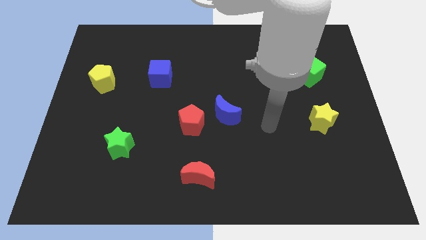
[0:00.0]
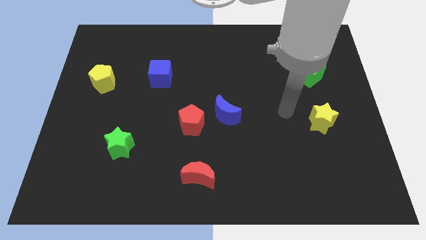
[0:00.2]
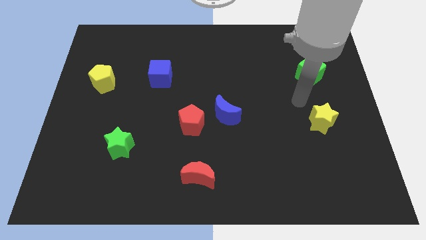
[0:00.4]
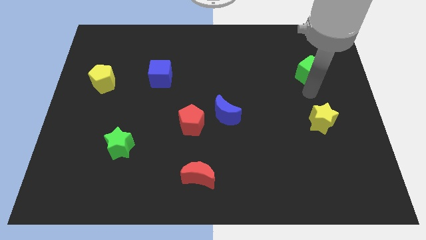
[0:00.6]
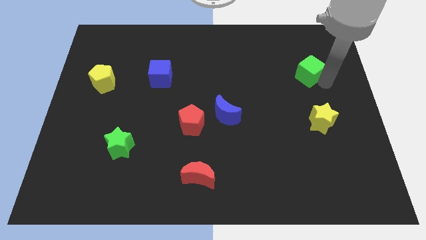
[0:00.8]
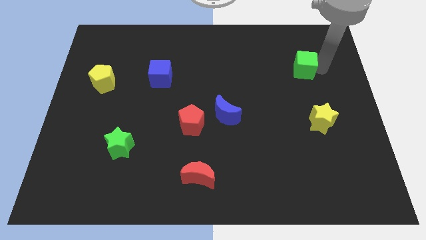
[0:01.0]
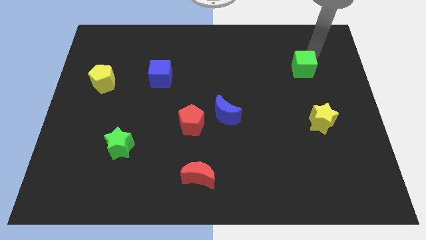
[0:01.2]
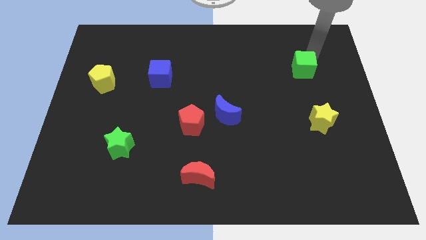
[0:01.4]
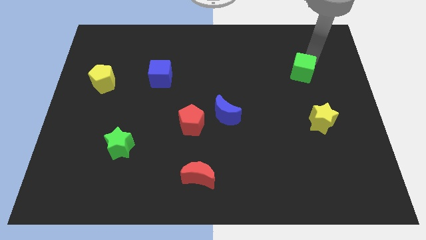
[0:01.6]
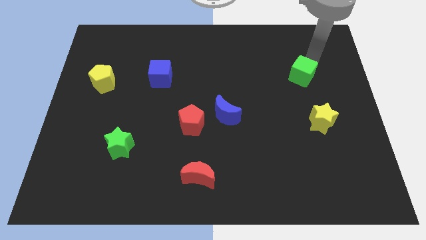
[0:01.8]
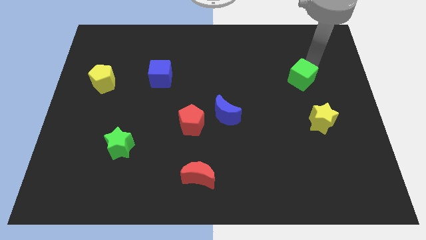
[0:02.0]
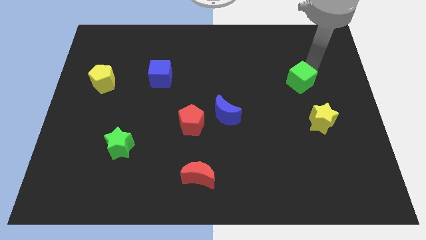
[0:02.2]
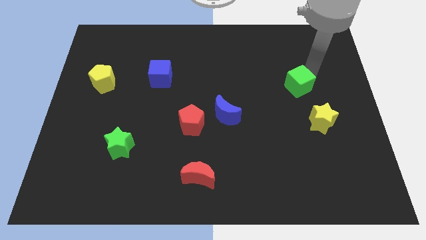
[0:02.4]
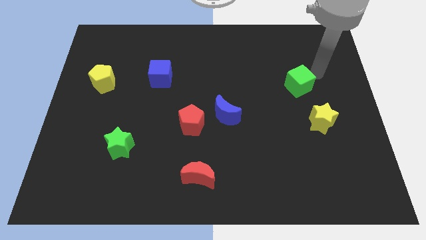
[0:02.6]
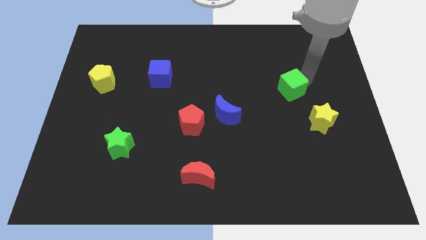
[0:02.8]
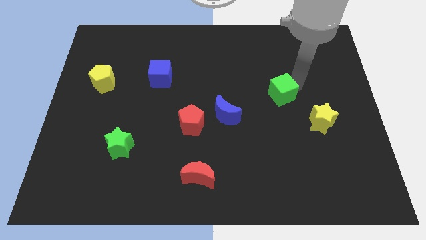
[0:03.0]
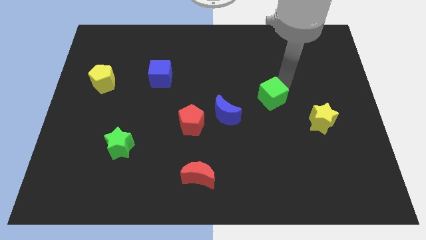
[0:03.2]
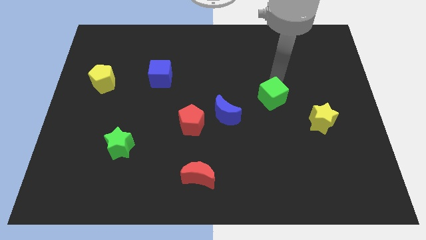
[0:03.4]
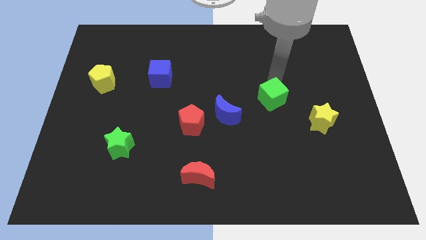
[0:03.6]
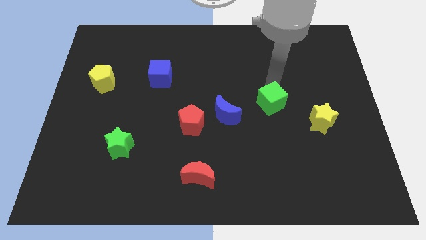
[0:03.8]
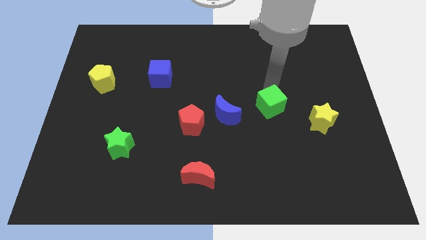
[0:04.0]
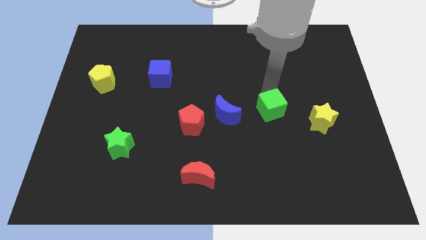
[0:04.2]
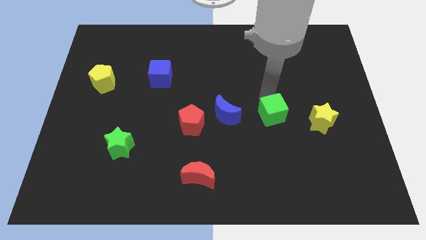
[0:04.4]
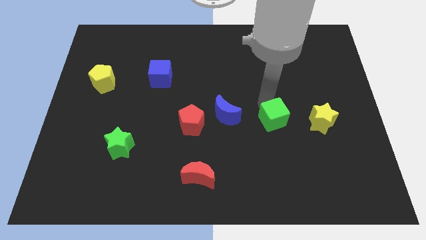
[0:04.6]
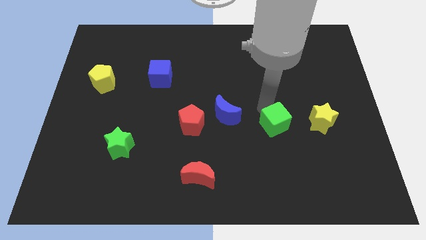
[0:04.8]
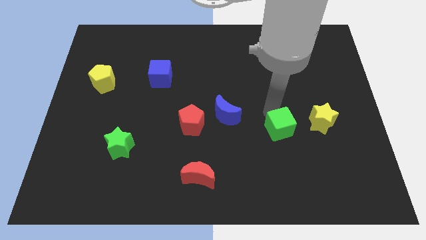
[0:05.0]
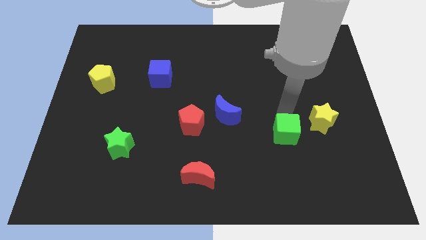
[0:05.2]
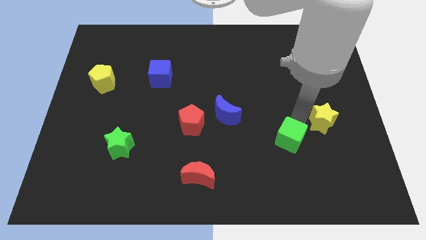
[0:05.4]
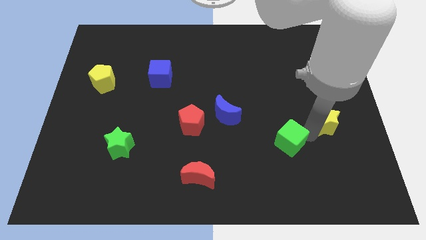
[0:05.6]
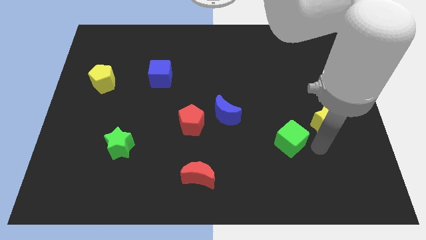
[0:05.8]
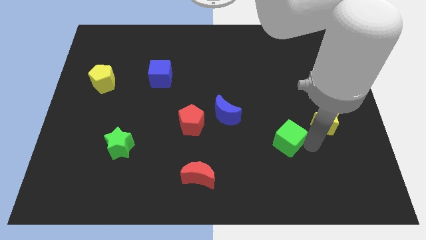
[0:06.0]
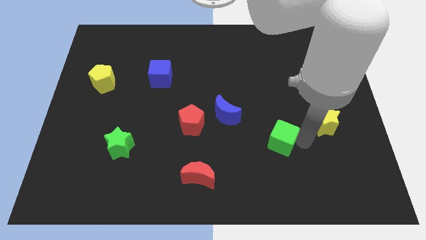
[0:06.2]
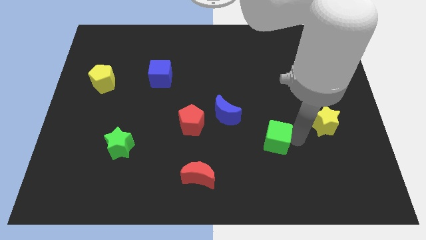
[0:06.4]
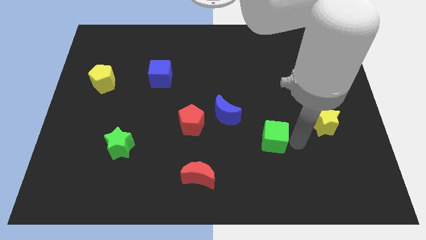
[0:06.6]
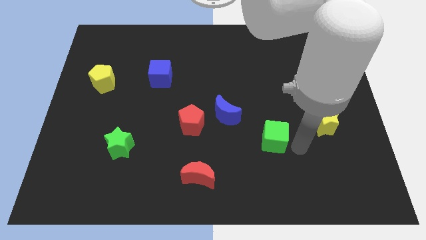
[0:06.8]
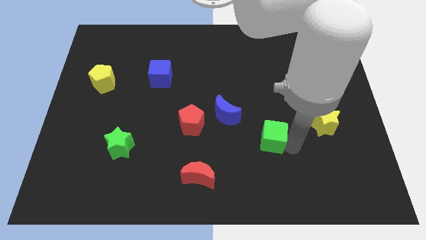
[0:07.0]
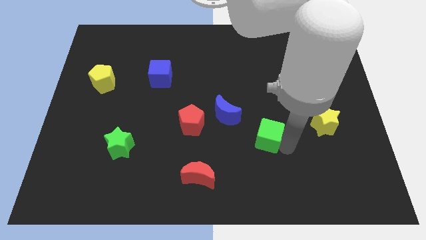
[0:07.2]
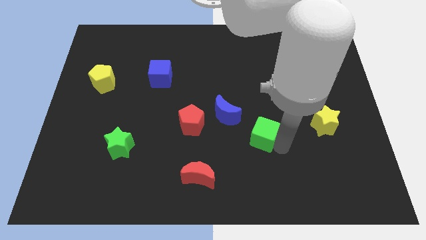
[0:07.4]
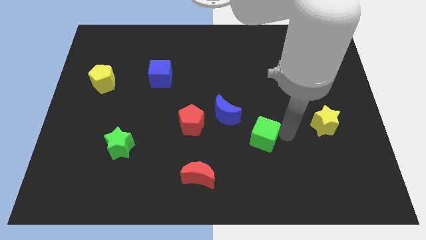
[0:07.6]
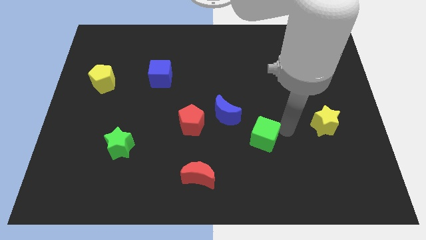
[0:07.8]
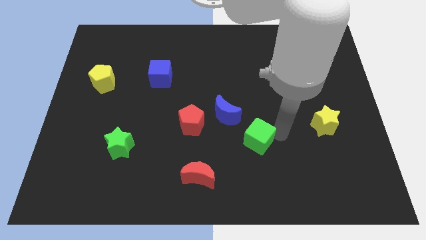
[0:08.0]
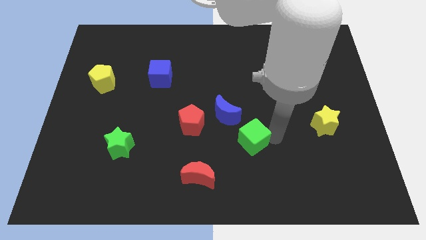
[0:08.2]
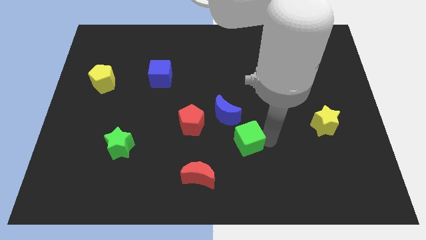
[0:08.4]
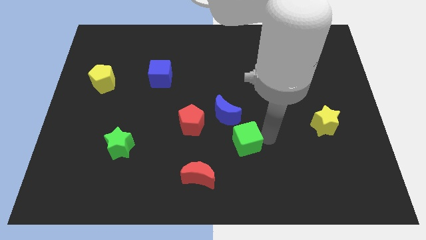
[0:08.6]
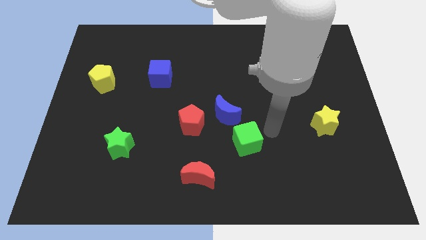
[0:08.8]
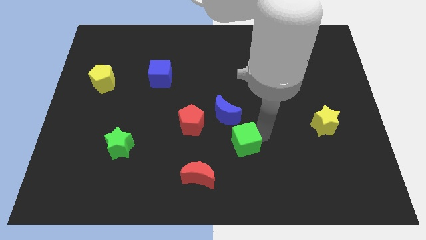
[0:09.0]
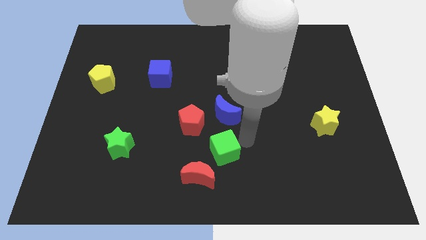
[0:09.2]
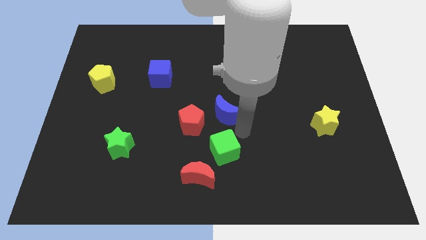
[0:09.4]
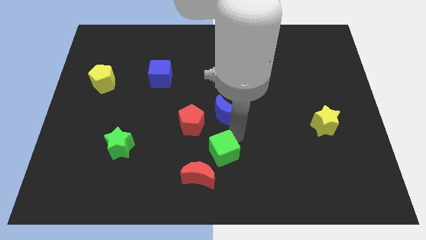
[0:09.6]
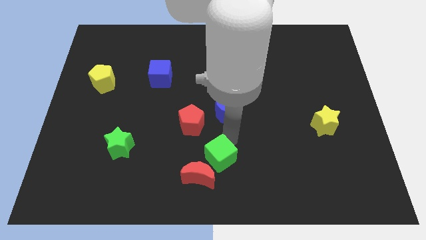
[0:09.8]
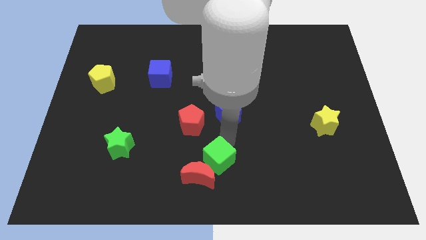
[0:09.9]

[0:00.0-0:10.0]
put the green cube close to the red moon

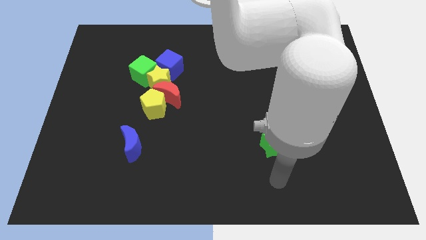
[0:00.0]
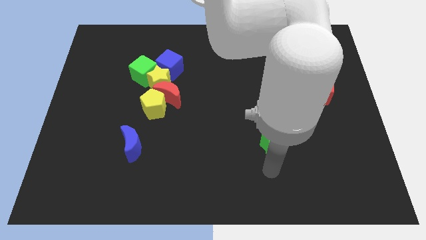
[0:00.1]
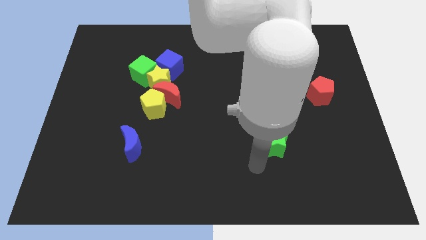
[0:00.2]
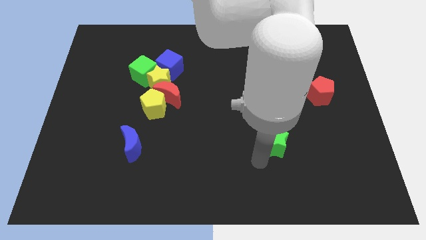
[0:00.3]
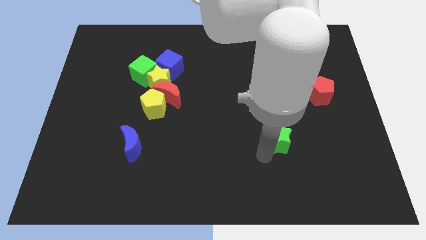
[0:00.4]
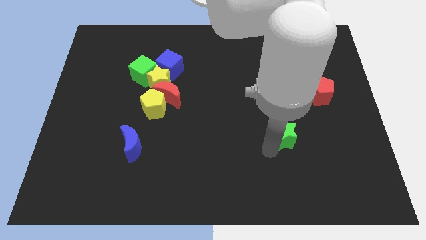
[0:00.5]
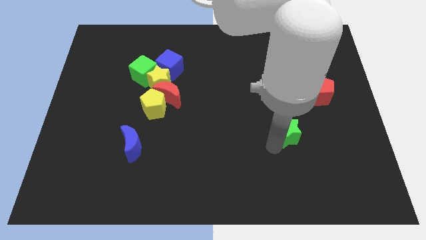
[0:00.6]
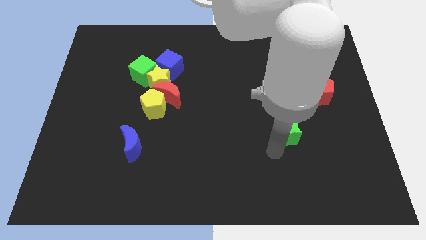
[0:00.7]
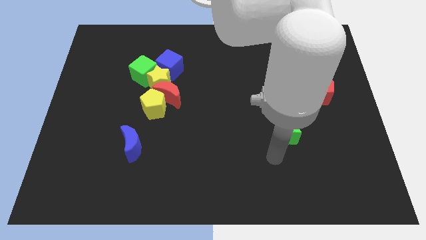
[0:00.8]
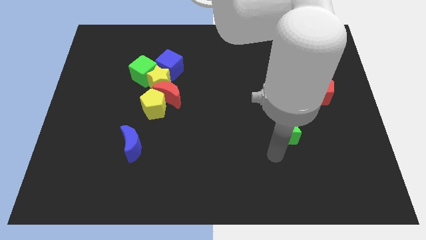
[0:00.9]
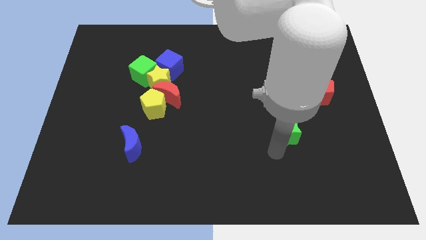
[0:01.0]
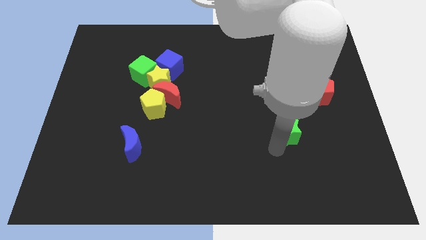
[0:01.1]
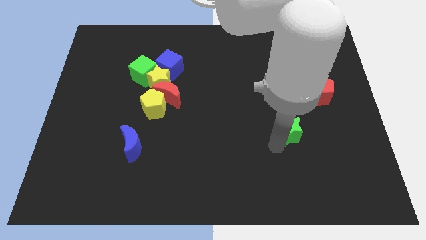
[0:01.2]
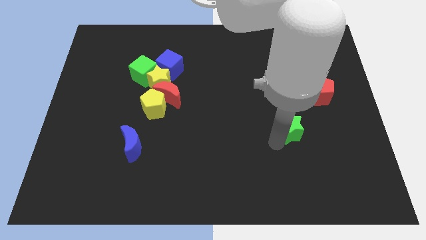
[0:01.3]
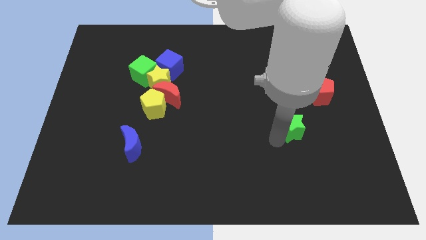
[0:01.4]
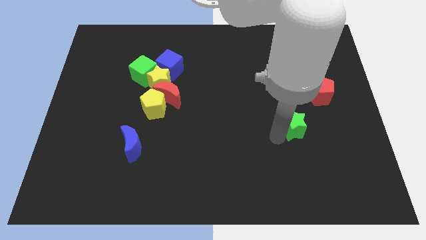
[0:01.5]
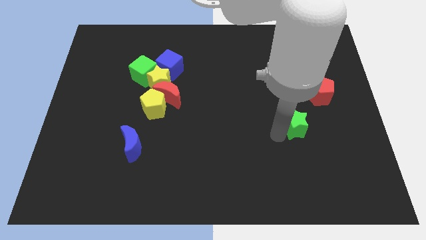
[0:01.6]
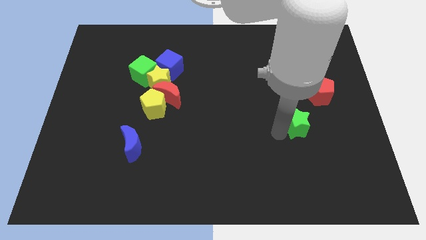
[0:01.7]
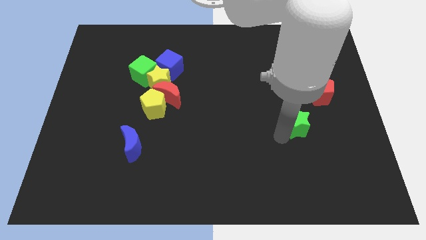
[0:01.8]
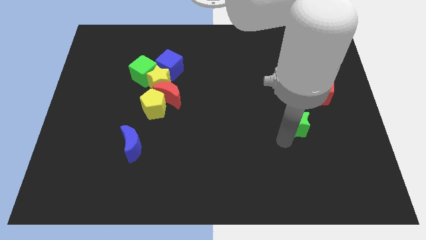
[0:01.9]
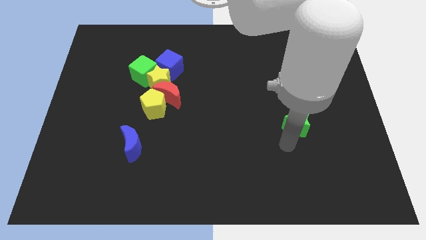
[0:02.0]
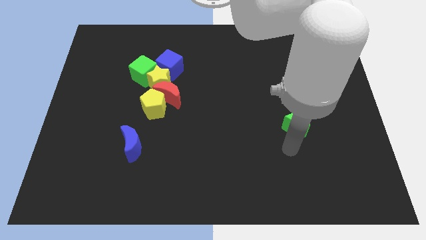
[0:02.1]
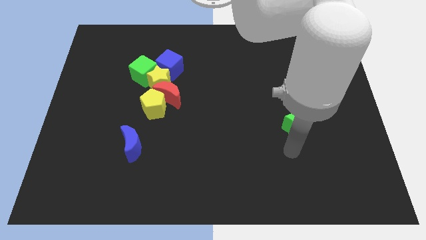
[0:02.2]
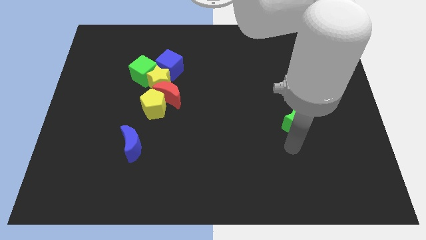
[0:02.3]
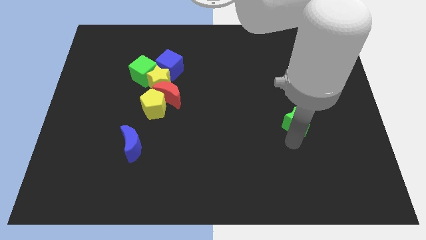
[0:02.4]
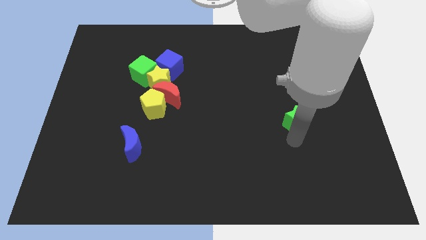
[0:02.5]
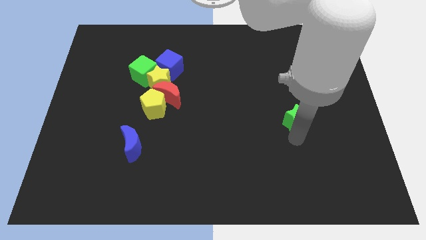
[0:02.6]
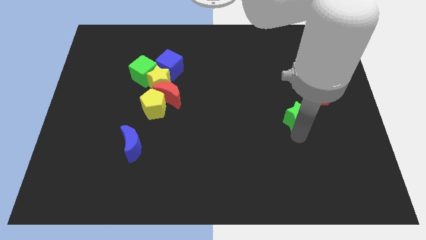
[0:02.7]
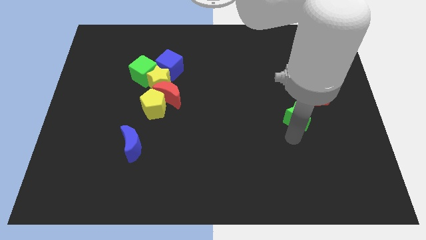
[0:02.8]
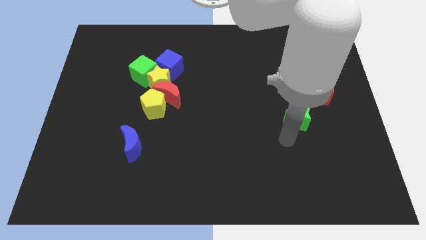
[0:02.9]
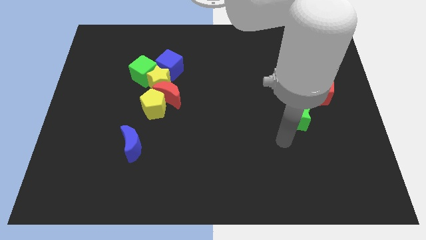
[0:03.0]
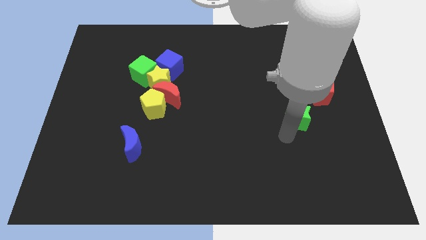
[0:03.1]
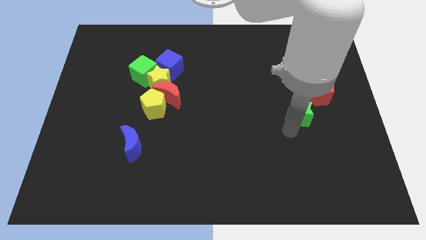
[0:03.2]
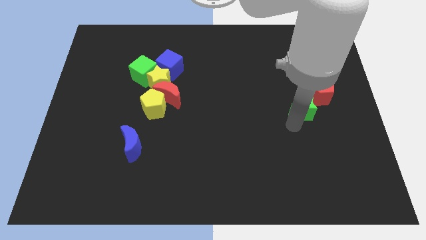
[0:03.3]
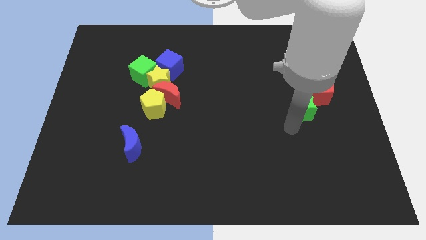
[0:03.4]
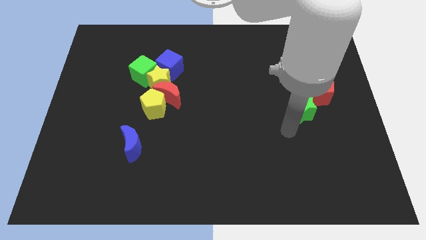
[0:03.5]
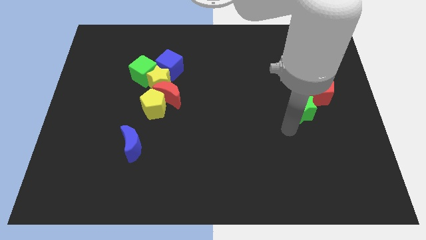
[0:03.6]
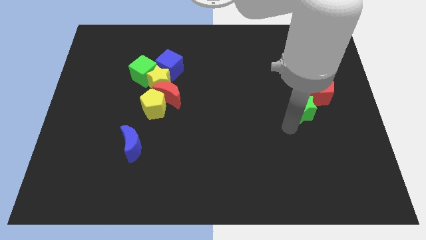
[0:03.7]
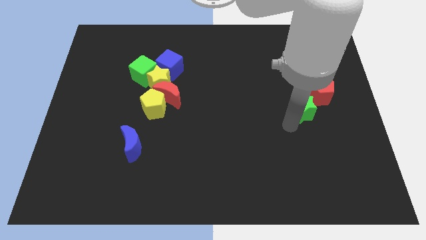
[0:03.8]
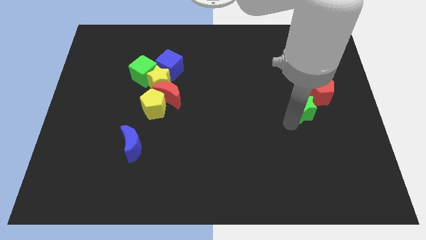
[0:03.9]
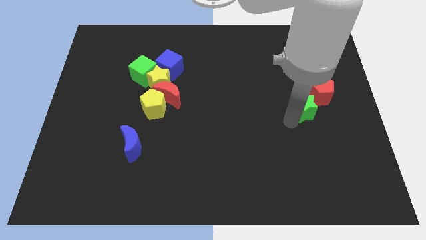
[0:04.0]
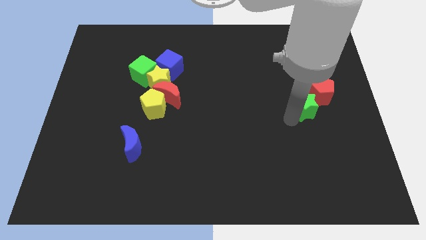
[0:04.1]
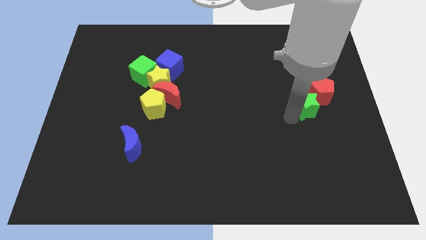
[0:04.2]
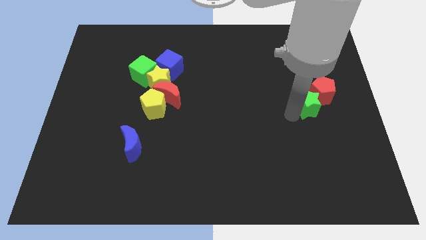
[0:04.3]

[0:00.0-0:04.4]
slide the green star to the red pentagon
